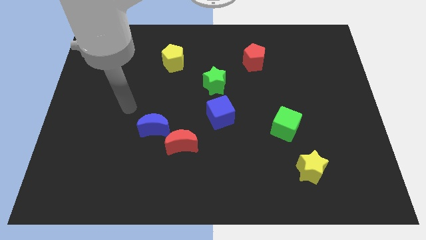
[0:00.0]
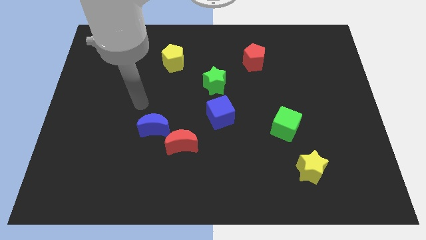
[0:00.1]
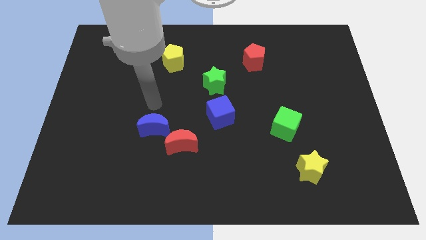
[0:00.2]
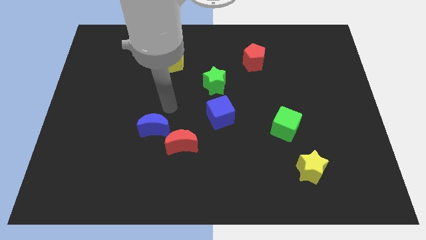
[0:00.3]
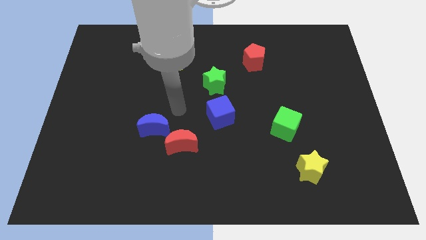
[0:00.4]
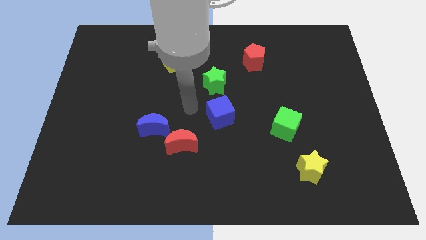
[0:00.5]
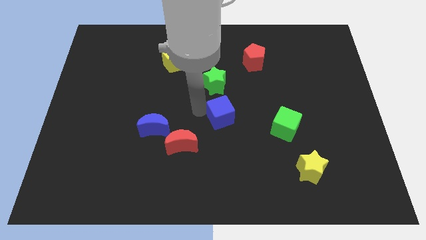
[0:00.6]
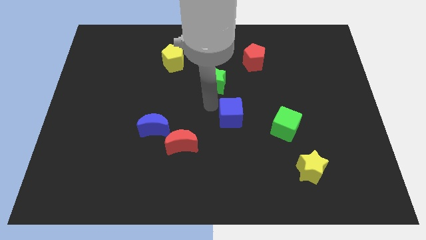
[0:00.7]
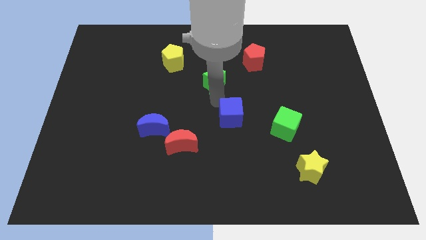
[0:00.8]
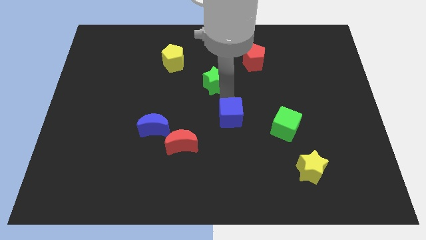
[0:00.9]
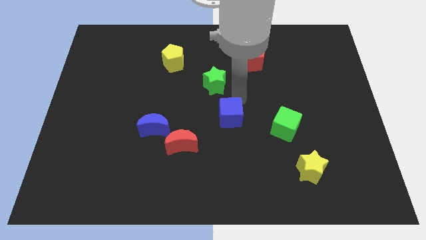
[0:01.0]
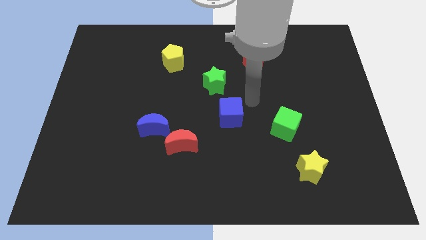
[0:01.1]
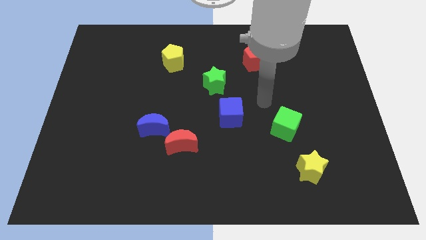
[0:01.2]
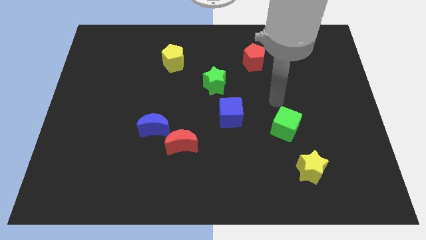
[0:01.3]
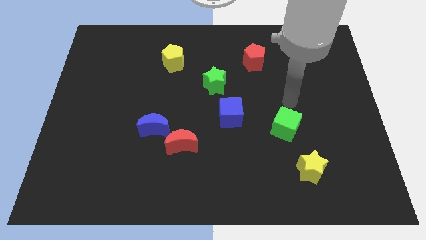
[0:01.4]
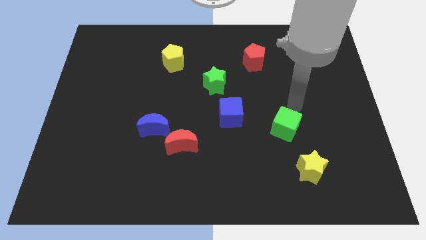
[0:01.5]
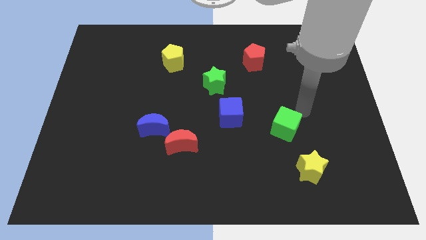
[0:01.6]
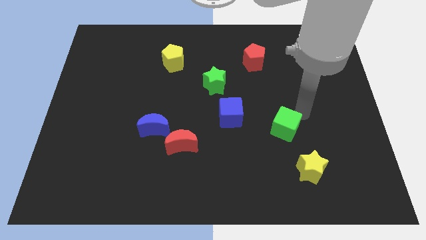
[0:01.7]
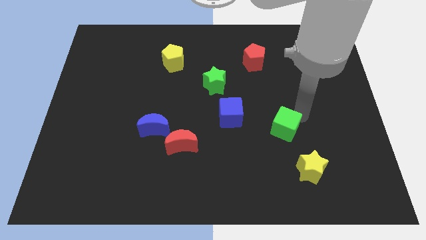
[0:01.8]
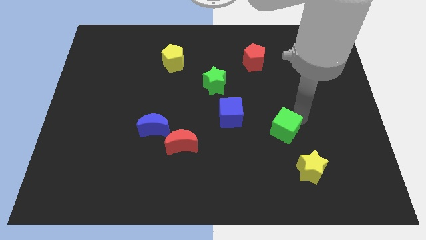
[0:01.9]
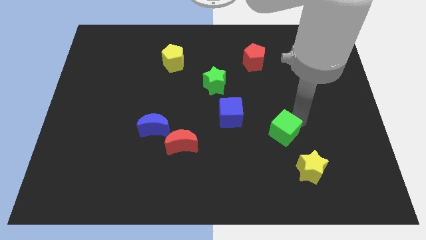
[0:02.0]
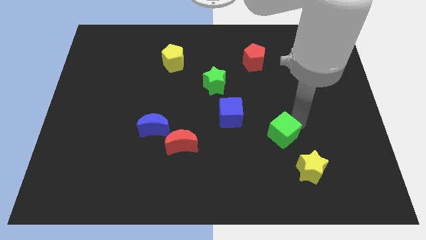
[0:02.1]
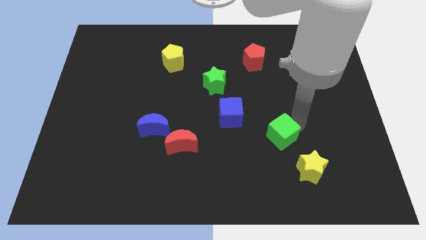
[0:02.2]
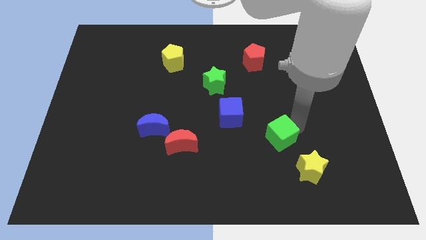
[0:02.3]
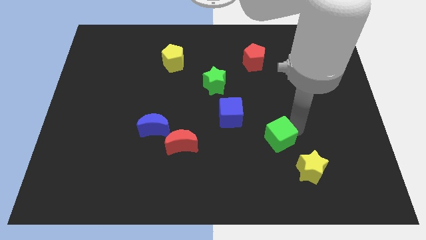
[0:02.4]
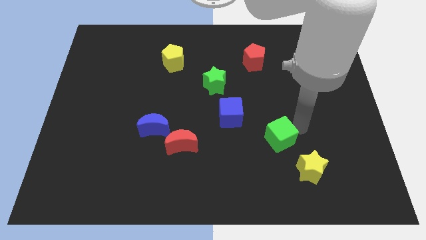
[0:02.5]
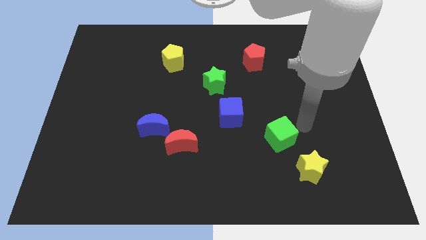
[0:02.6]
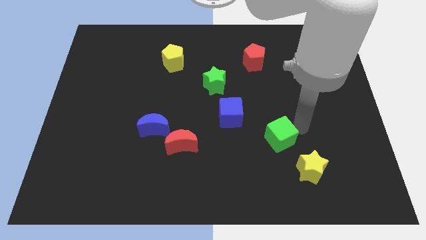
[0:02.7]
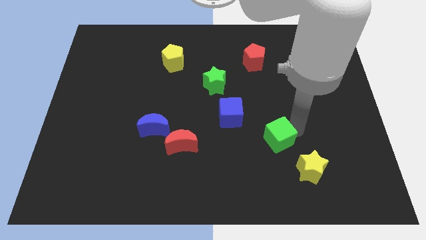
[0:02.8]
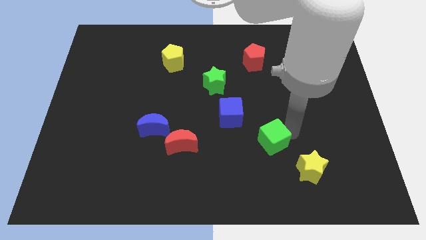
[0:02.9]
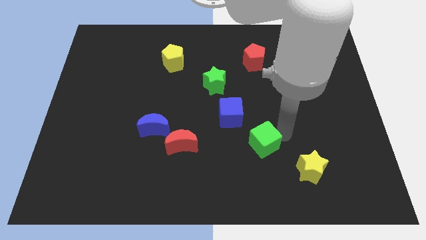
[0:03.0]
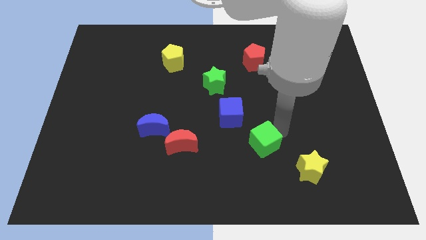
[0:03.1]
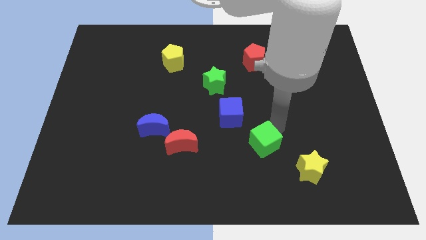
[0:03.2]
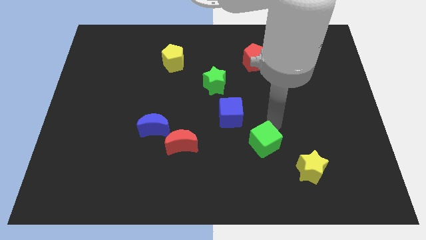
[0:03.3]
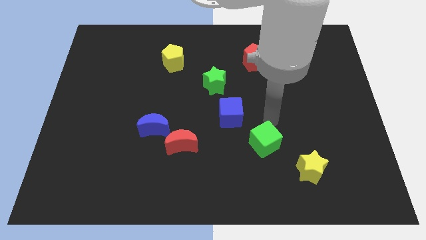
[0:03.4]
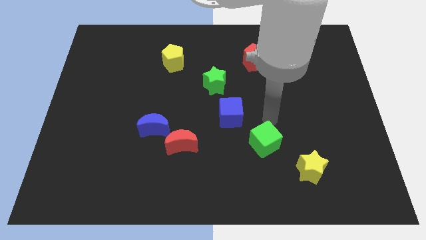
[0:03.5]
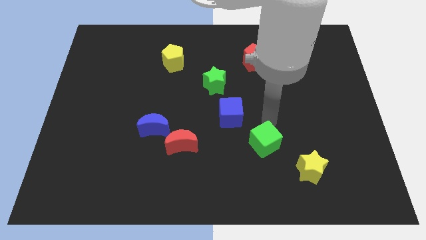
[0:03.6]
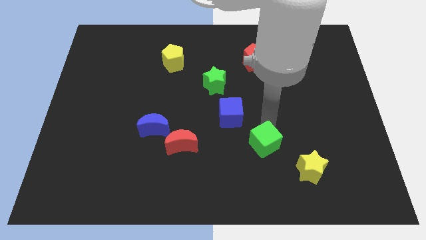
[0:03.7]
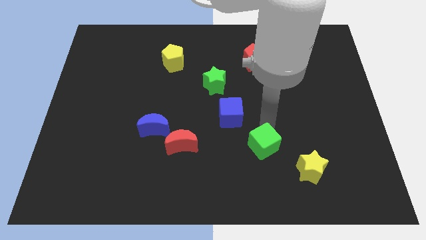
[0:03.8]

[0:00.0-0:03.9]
slightly push the green cube downwards and left diagonally

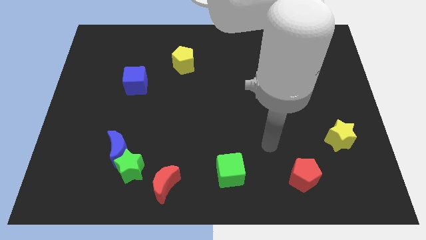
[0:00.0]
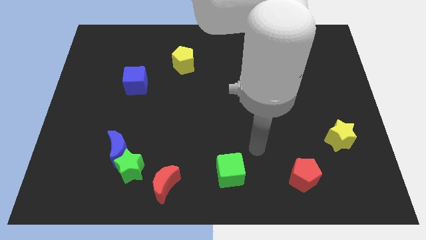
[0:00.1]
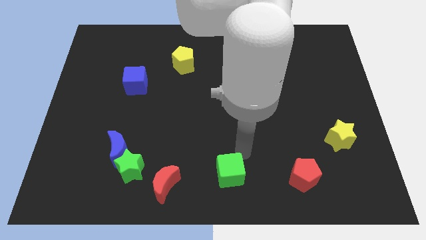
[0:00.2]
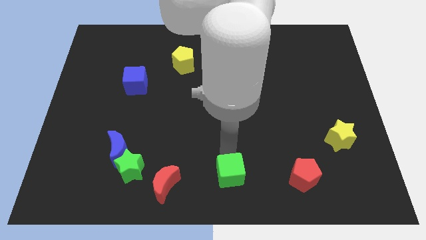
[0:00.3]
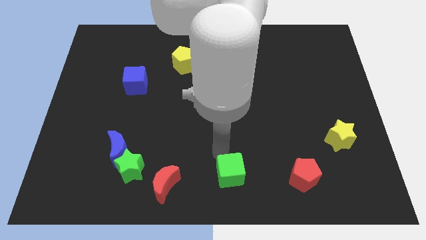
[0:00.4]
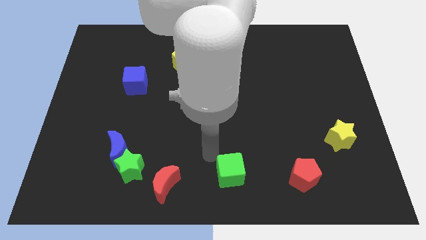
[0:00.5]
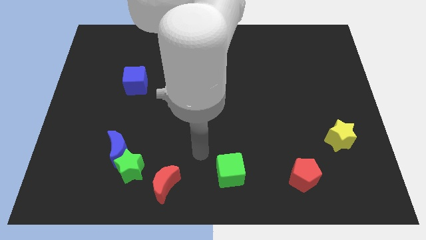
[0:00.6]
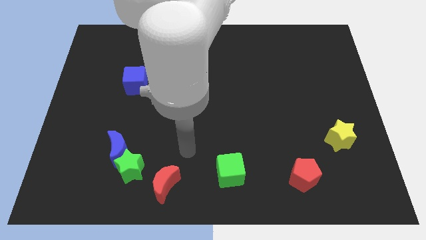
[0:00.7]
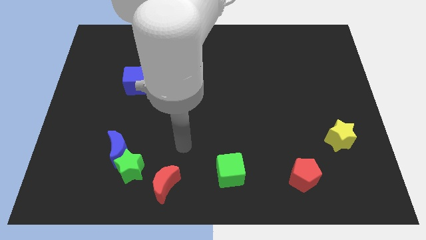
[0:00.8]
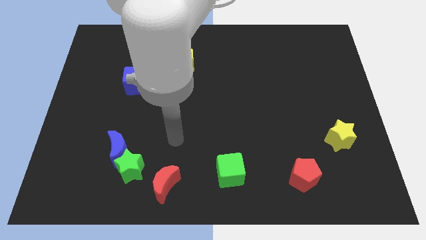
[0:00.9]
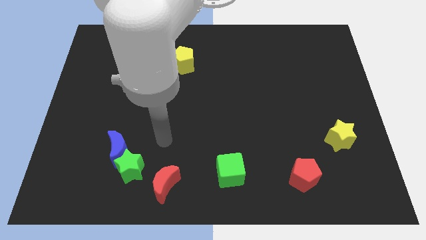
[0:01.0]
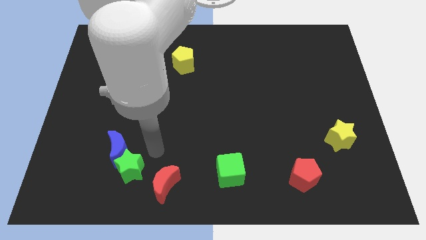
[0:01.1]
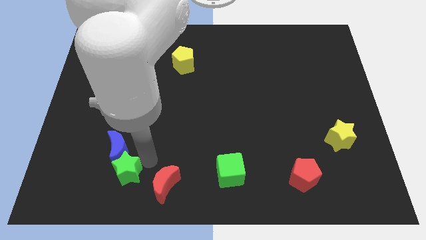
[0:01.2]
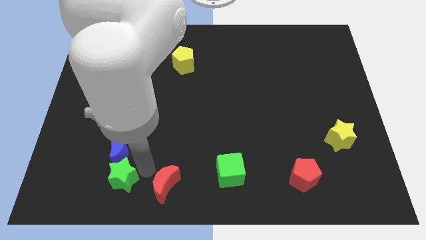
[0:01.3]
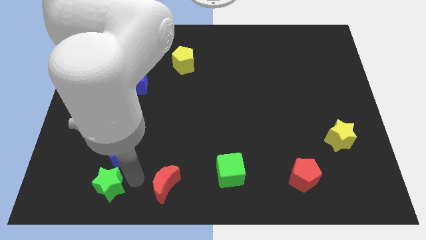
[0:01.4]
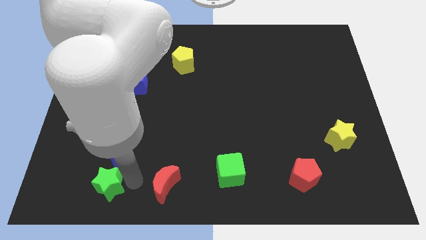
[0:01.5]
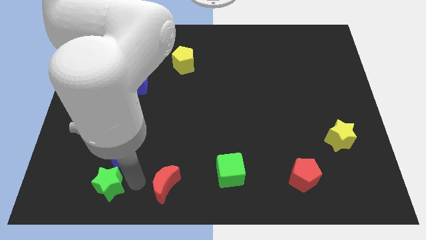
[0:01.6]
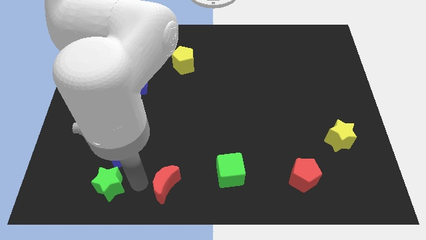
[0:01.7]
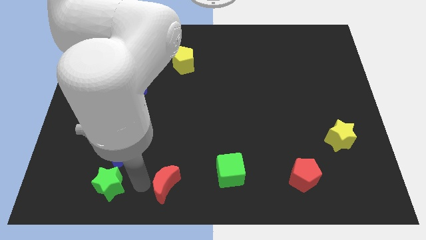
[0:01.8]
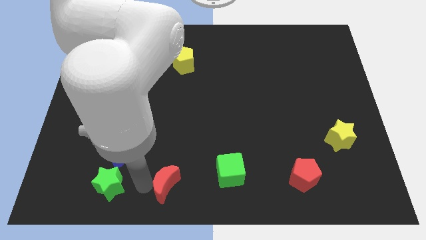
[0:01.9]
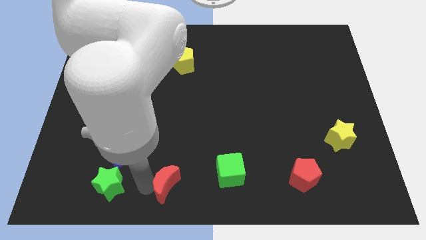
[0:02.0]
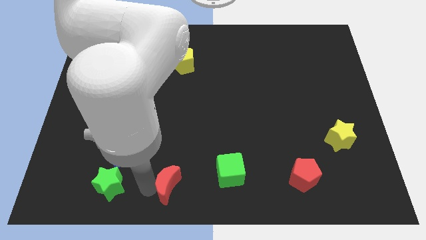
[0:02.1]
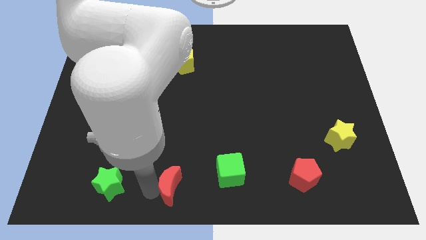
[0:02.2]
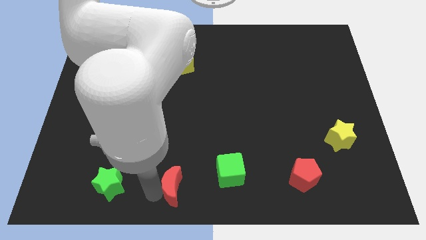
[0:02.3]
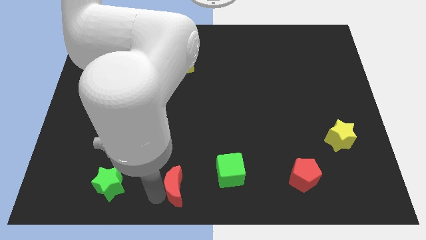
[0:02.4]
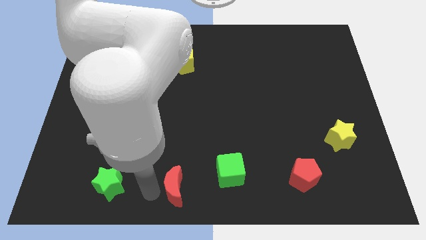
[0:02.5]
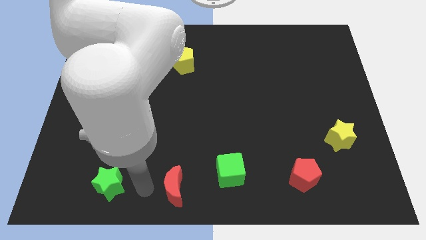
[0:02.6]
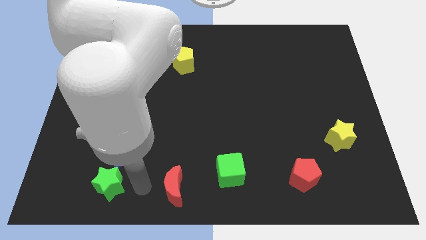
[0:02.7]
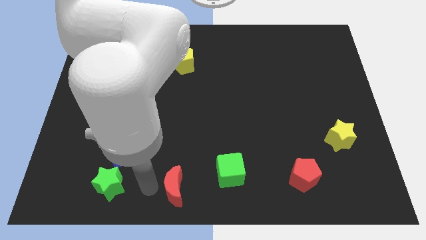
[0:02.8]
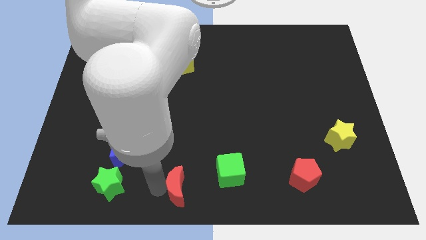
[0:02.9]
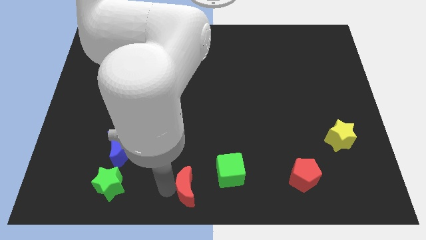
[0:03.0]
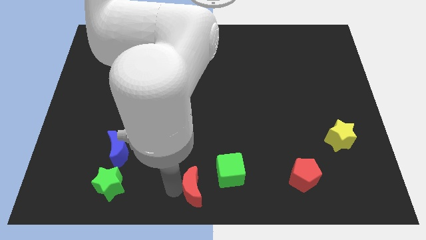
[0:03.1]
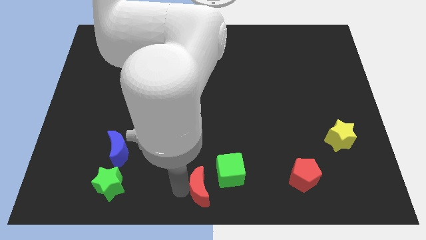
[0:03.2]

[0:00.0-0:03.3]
move the red moon a little to the right

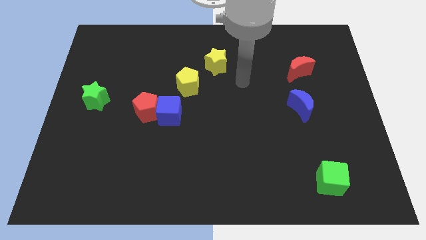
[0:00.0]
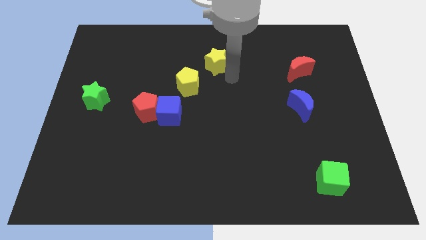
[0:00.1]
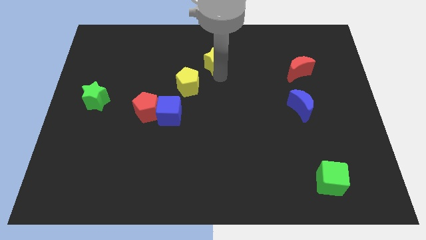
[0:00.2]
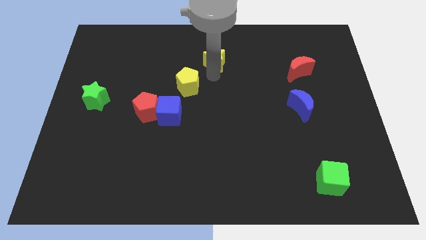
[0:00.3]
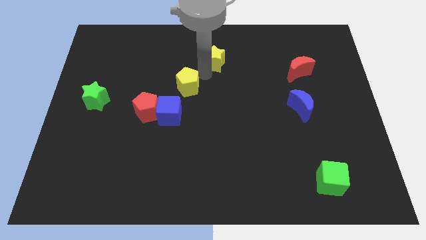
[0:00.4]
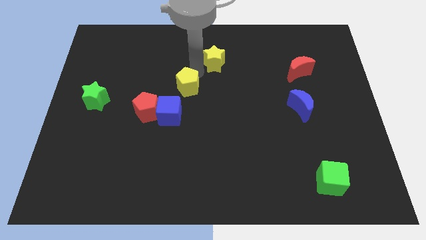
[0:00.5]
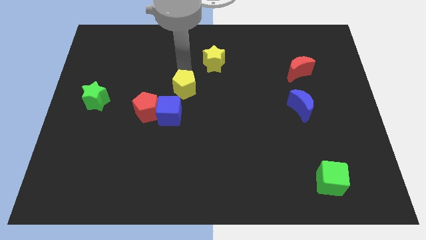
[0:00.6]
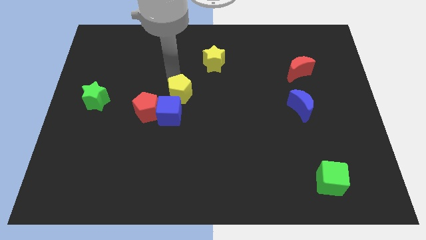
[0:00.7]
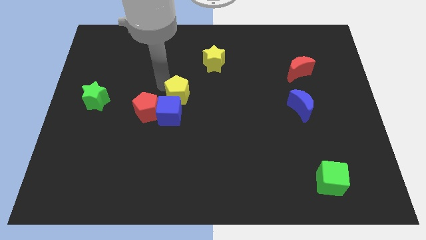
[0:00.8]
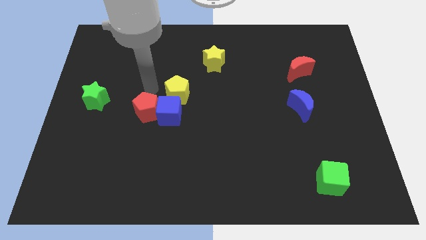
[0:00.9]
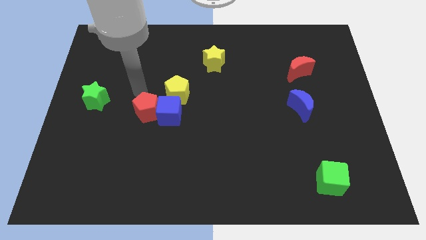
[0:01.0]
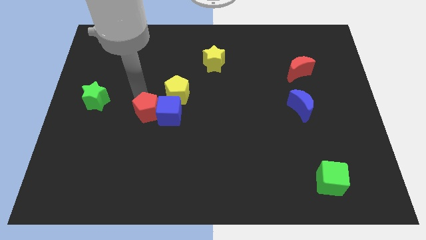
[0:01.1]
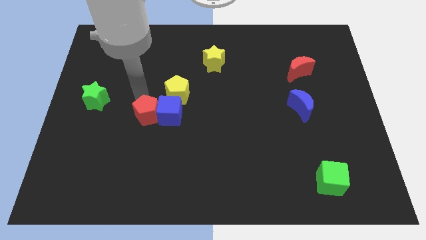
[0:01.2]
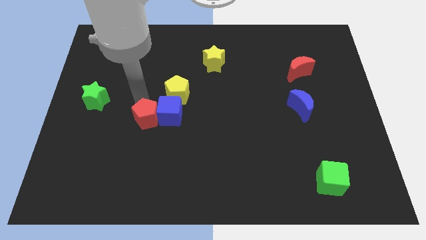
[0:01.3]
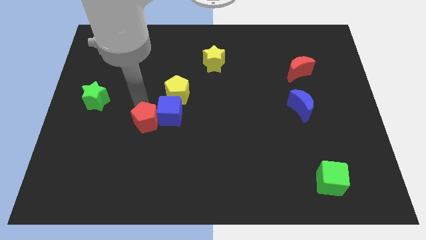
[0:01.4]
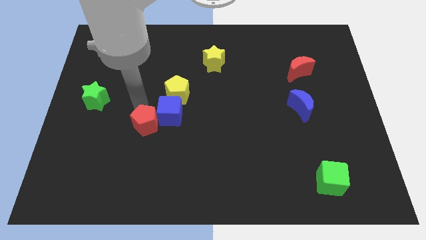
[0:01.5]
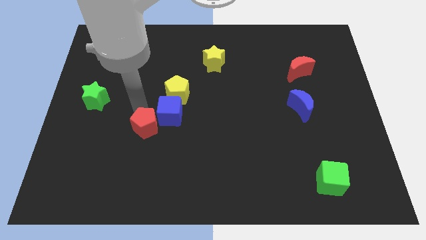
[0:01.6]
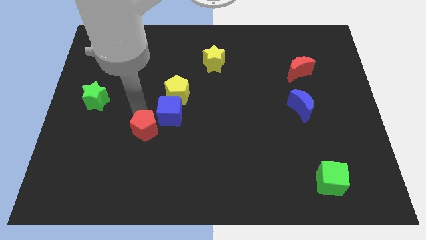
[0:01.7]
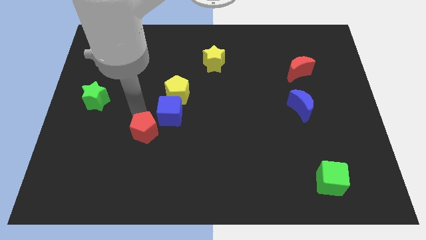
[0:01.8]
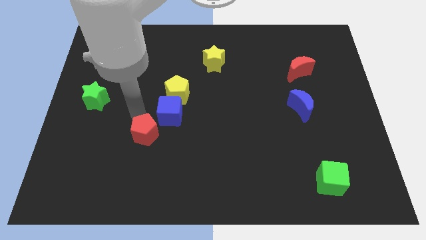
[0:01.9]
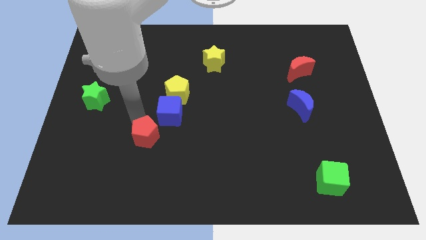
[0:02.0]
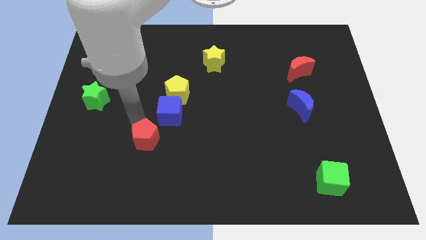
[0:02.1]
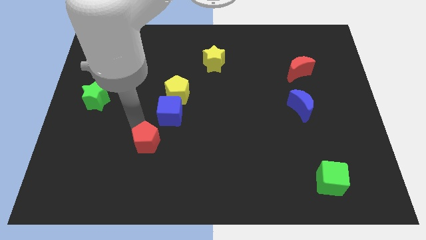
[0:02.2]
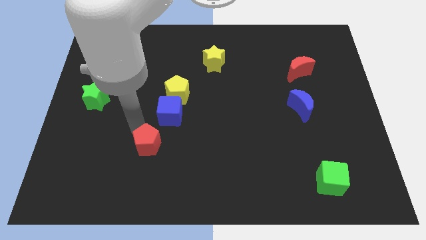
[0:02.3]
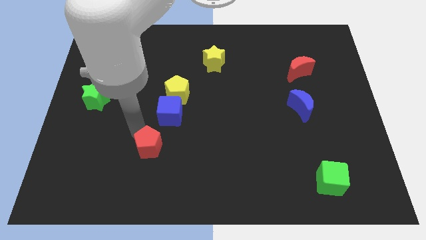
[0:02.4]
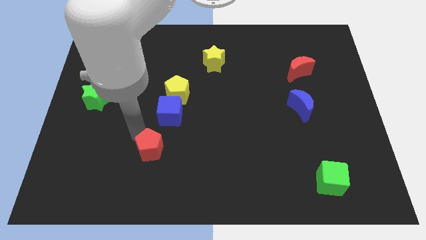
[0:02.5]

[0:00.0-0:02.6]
slightly slide the red pentagon diagonally downwards and to the right
